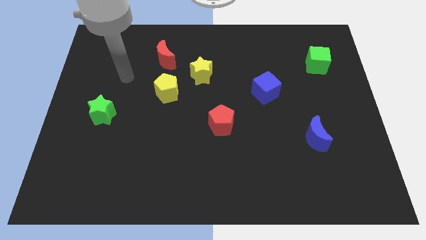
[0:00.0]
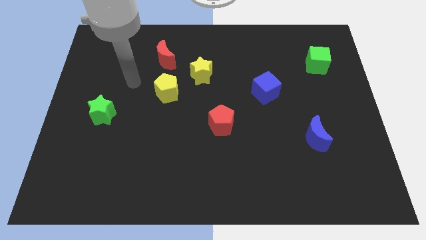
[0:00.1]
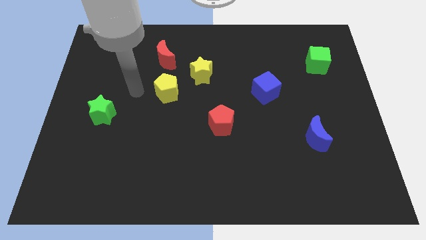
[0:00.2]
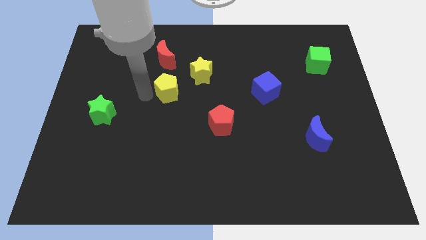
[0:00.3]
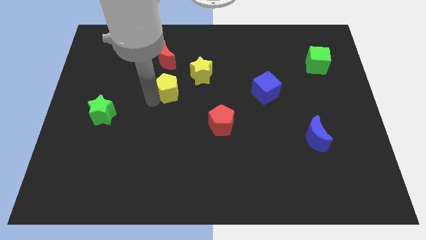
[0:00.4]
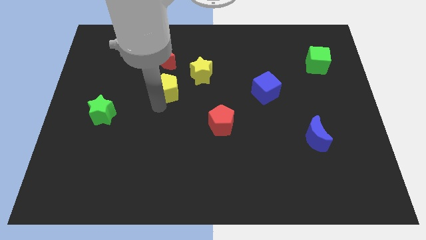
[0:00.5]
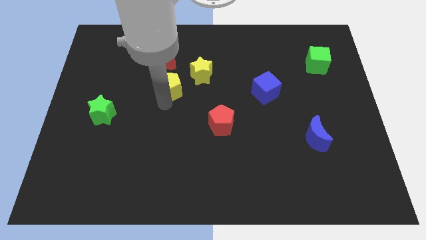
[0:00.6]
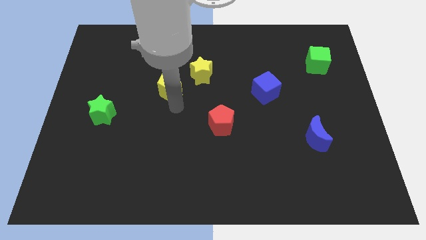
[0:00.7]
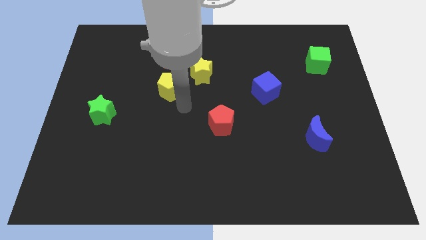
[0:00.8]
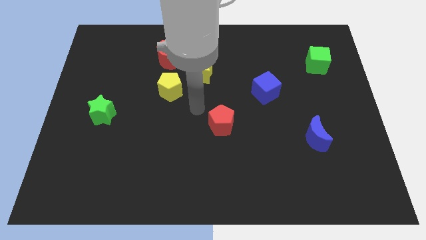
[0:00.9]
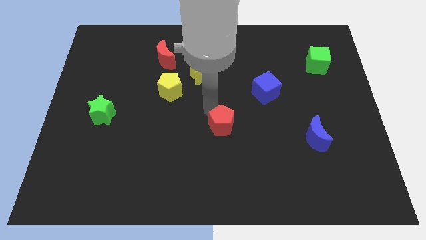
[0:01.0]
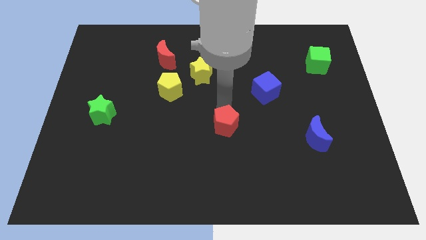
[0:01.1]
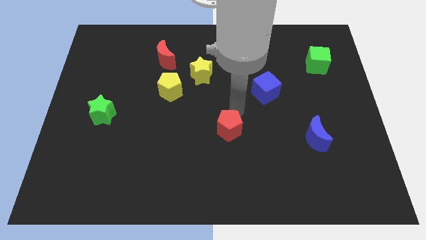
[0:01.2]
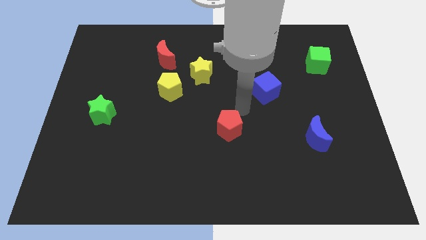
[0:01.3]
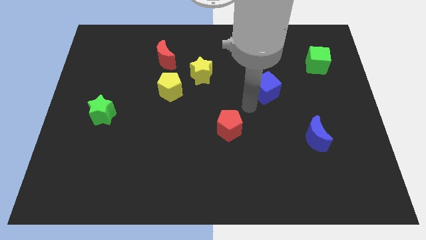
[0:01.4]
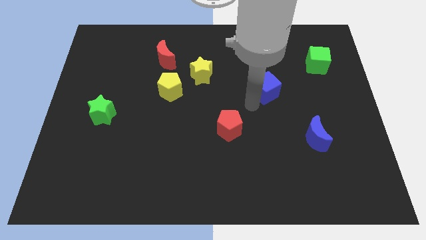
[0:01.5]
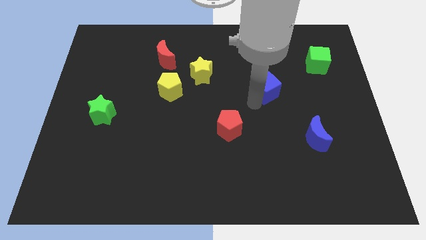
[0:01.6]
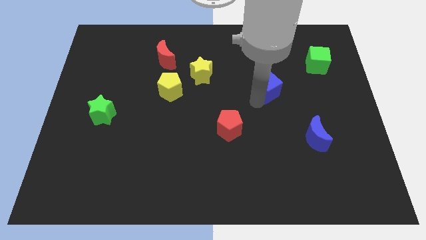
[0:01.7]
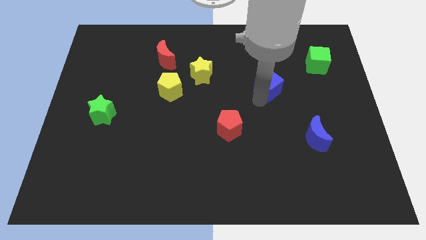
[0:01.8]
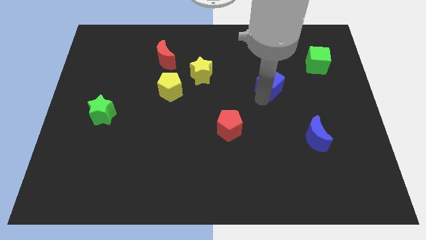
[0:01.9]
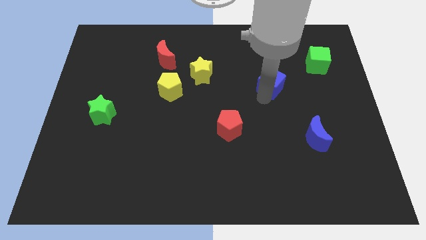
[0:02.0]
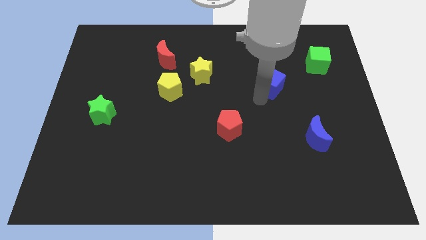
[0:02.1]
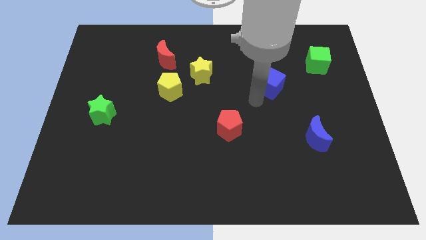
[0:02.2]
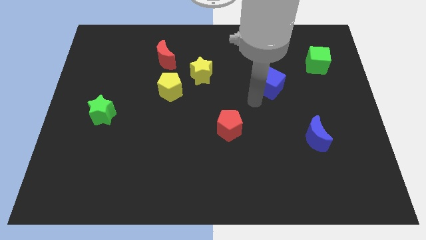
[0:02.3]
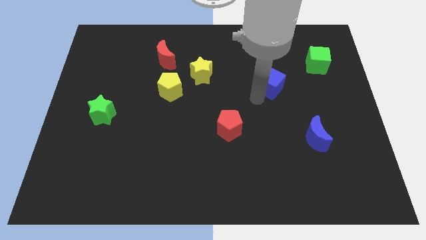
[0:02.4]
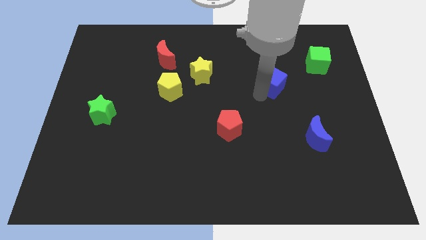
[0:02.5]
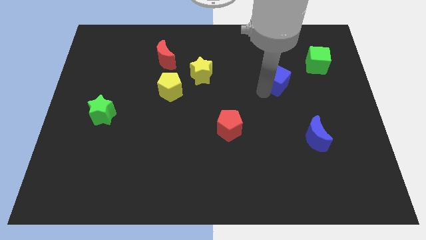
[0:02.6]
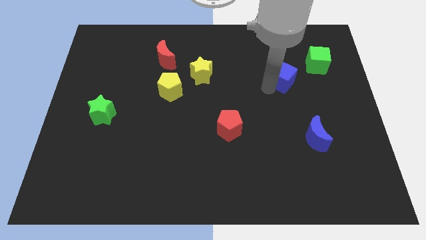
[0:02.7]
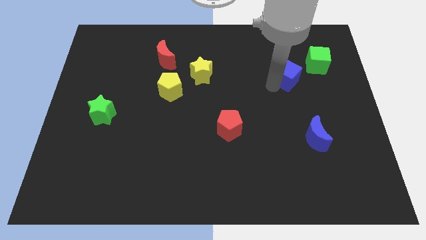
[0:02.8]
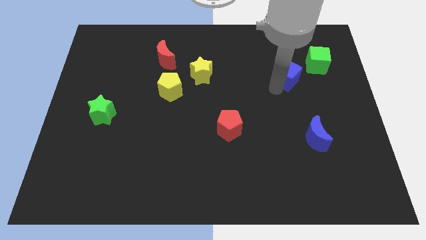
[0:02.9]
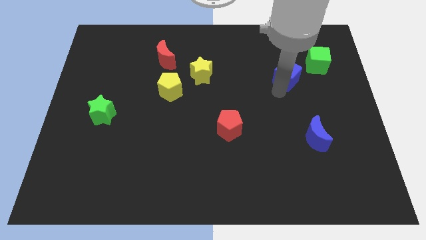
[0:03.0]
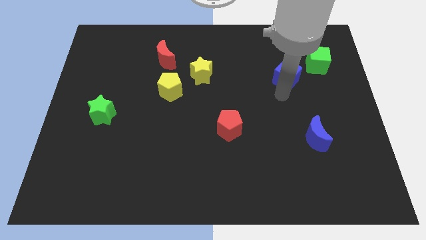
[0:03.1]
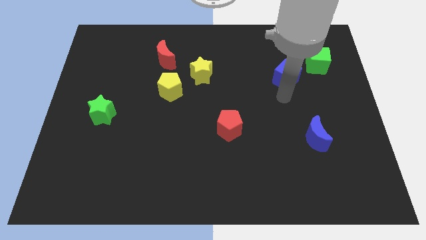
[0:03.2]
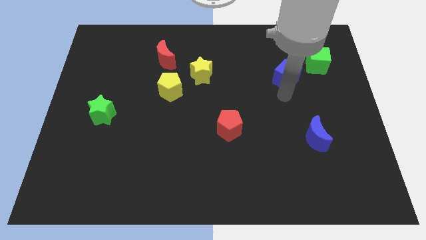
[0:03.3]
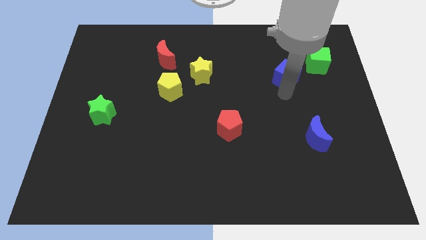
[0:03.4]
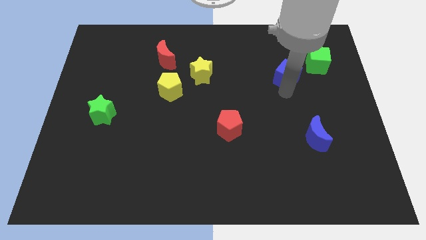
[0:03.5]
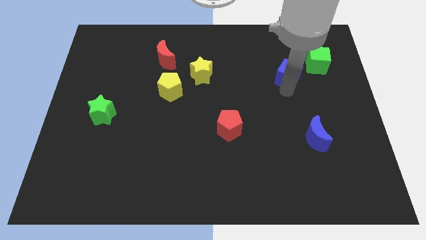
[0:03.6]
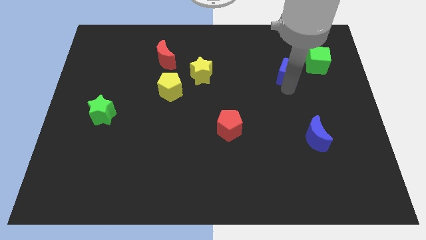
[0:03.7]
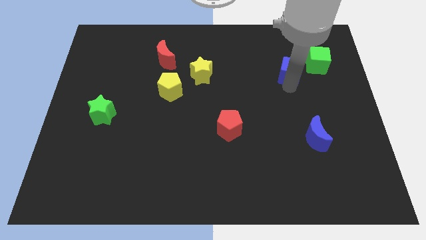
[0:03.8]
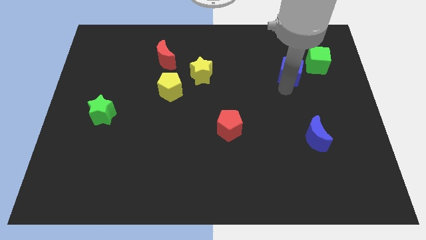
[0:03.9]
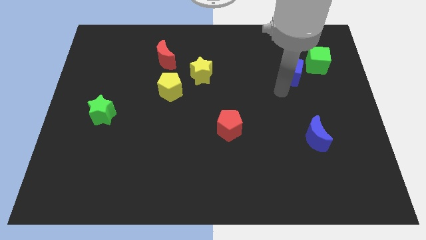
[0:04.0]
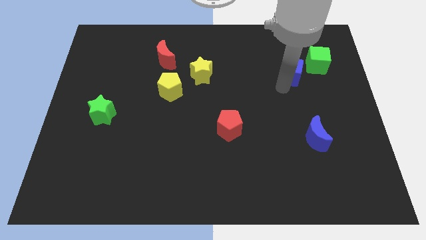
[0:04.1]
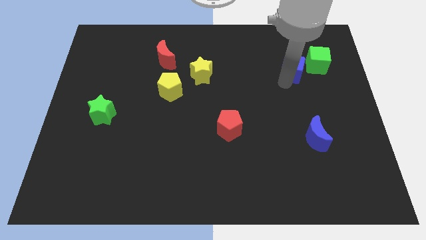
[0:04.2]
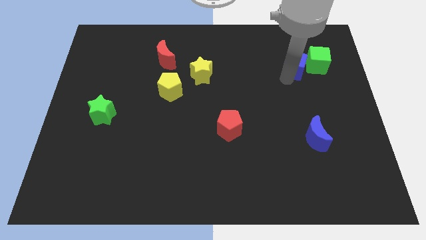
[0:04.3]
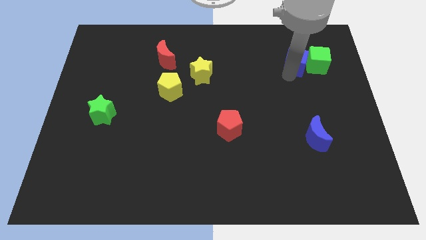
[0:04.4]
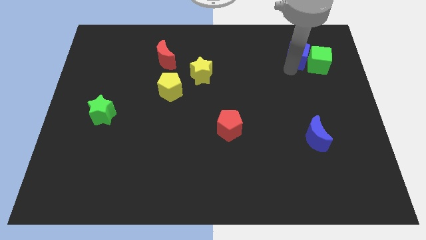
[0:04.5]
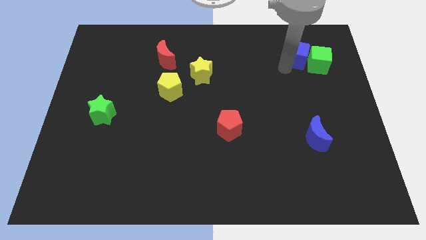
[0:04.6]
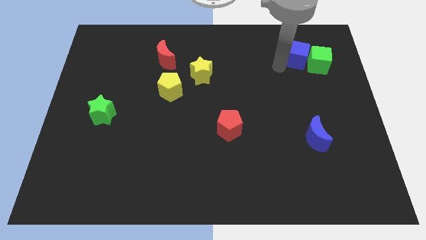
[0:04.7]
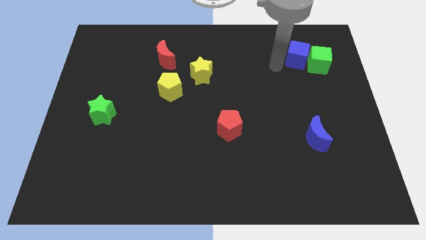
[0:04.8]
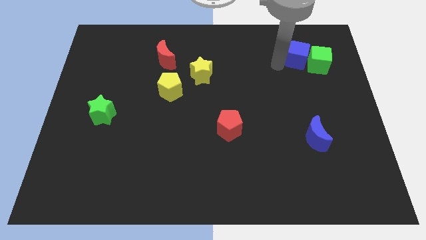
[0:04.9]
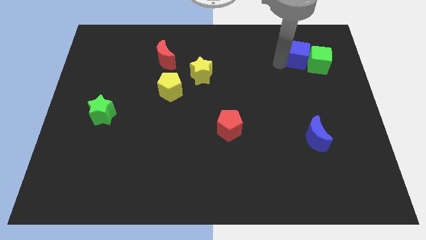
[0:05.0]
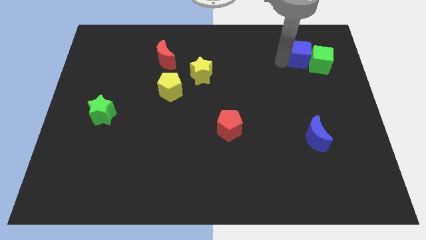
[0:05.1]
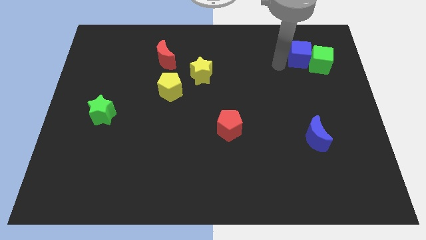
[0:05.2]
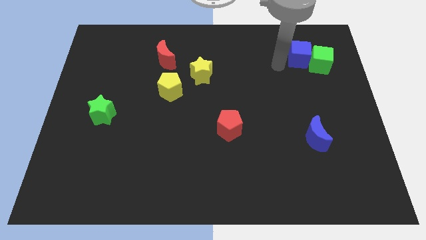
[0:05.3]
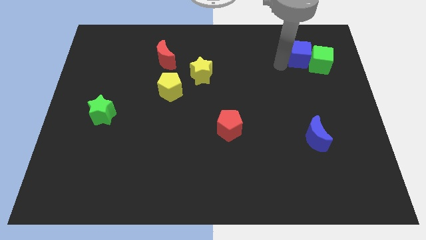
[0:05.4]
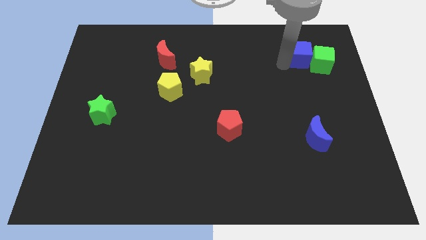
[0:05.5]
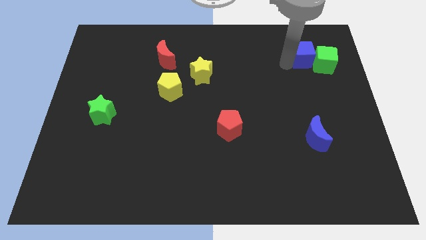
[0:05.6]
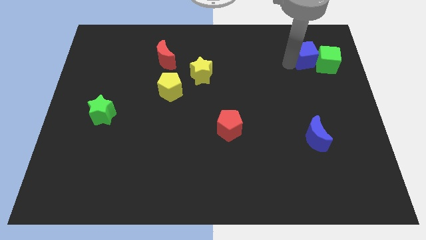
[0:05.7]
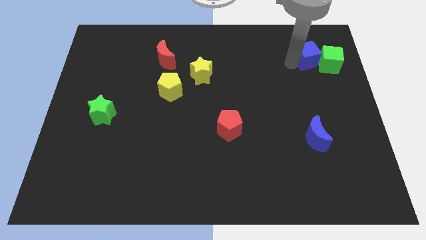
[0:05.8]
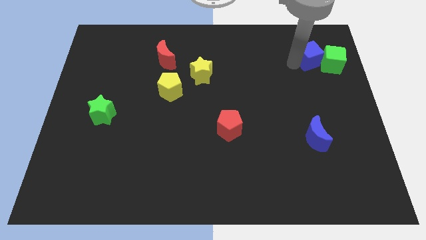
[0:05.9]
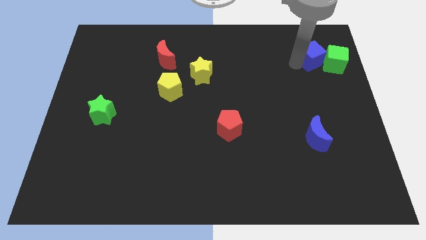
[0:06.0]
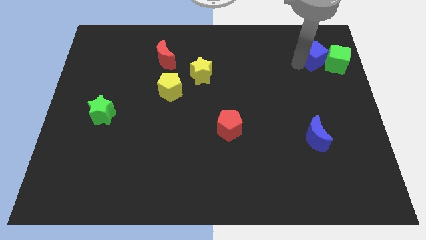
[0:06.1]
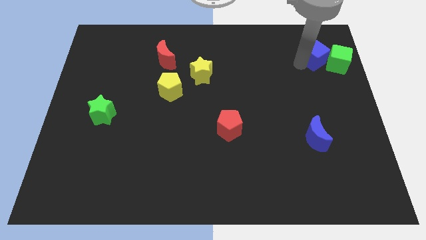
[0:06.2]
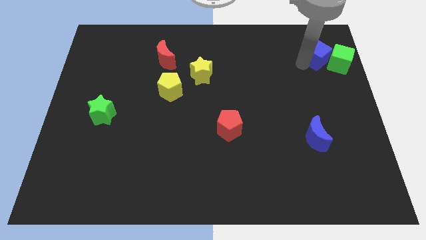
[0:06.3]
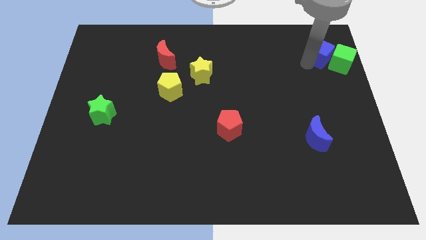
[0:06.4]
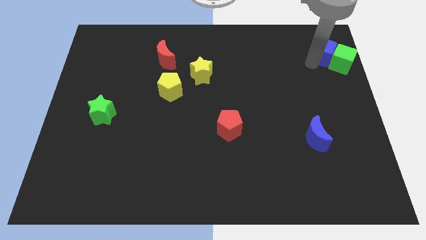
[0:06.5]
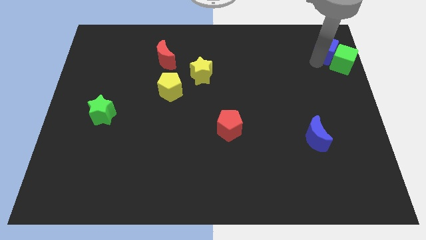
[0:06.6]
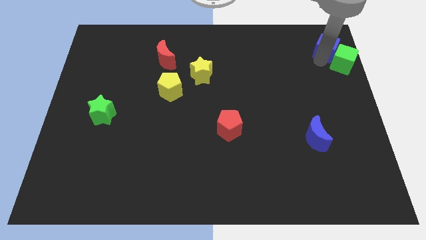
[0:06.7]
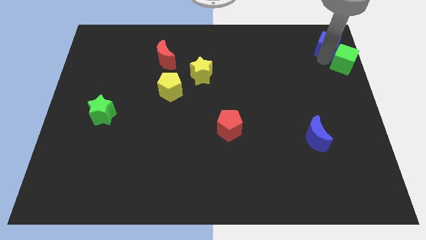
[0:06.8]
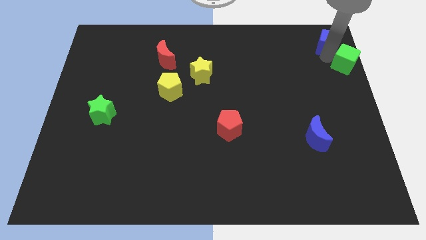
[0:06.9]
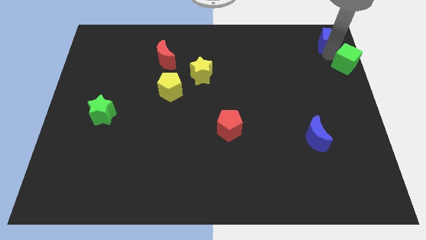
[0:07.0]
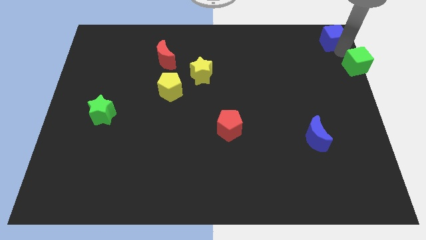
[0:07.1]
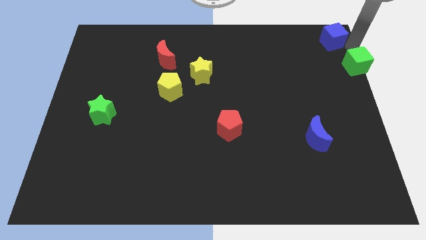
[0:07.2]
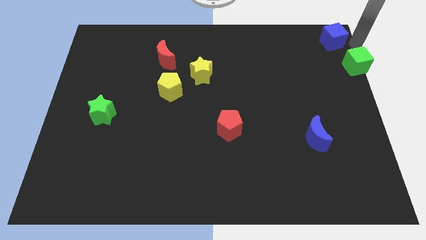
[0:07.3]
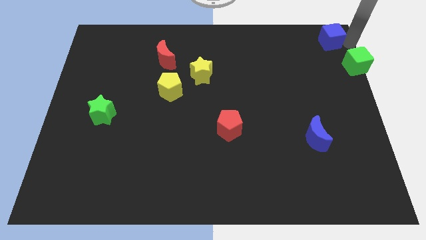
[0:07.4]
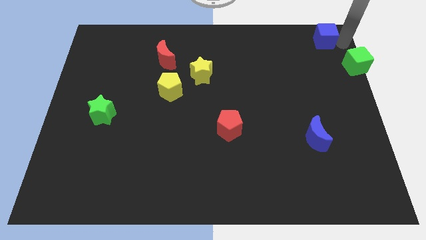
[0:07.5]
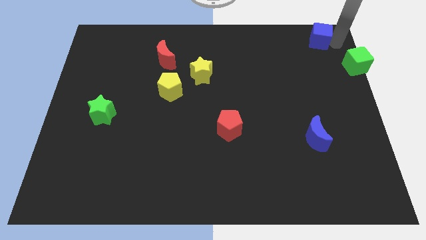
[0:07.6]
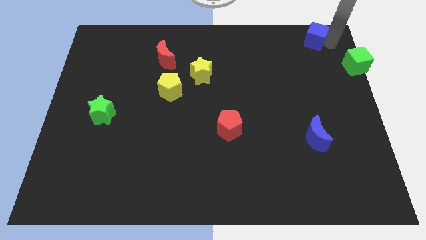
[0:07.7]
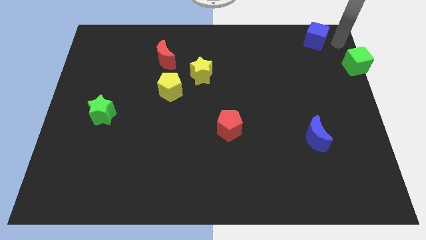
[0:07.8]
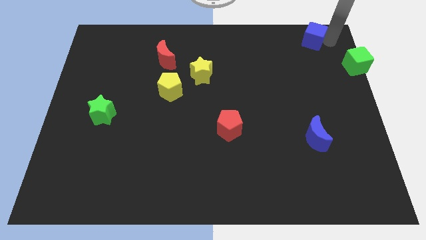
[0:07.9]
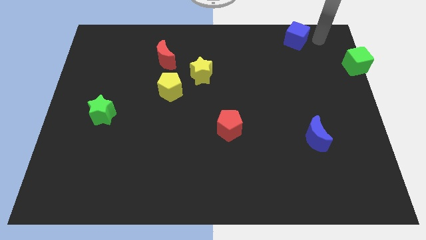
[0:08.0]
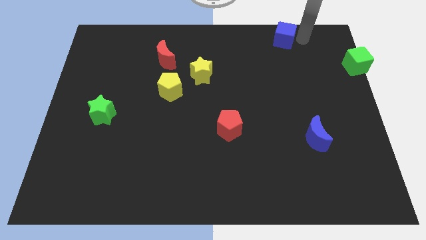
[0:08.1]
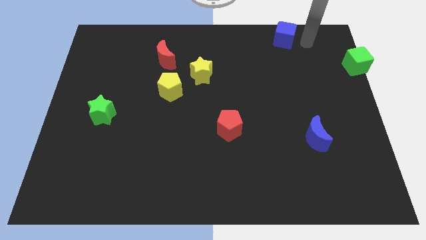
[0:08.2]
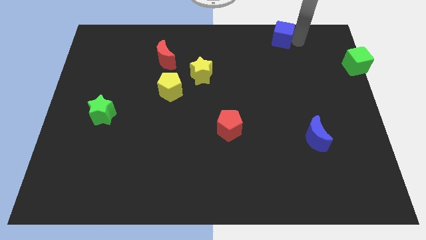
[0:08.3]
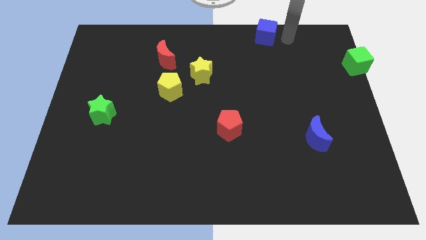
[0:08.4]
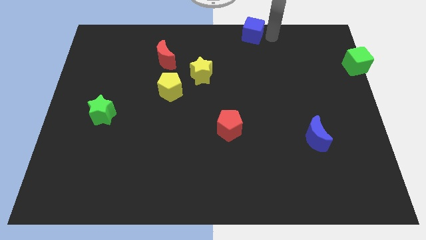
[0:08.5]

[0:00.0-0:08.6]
push the blue cube to the towards your base
